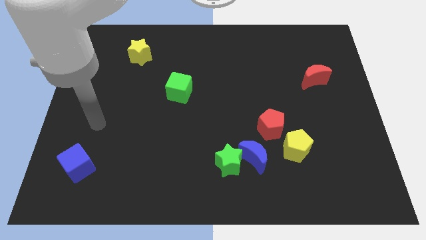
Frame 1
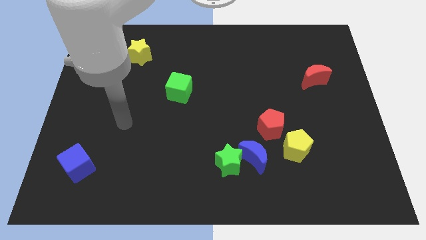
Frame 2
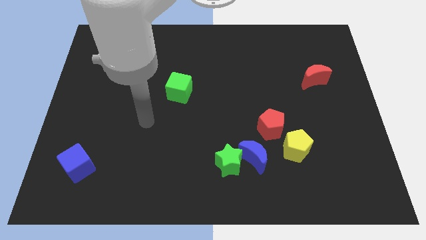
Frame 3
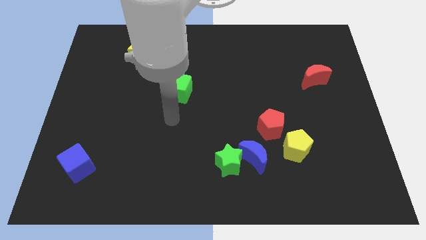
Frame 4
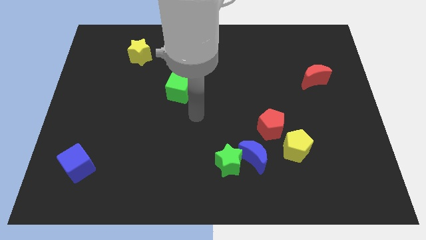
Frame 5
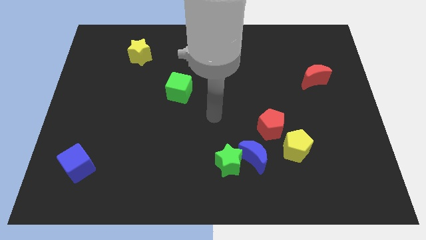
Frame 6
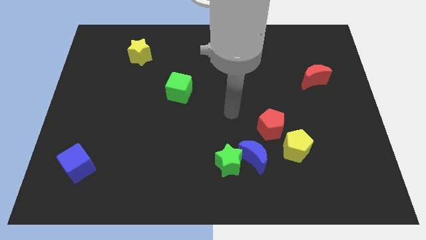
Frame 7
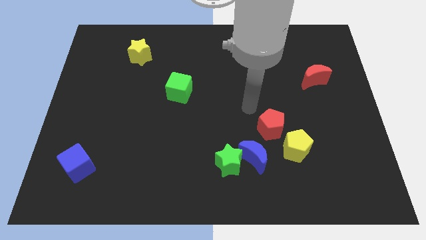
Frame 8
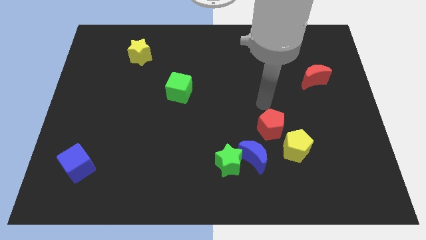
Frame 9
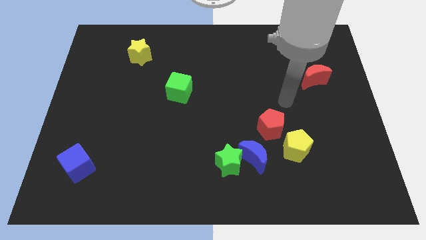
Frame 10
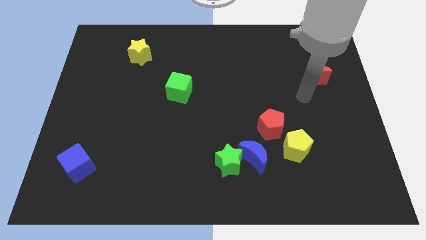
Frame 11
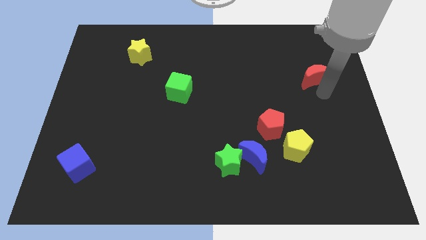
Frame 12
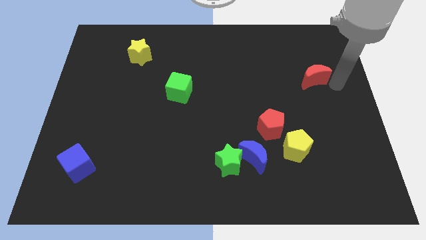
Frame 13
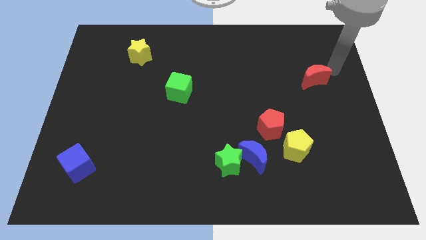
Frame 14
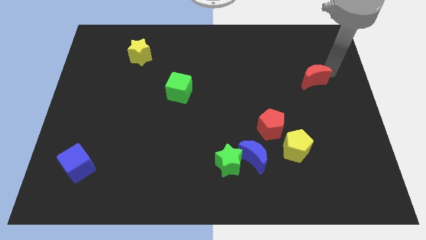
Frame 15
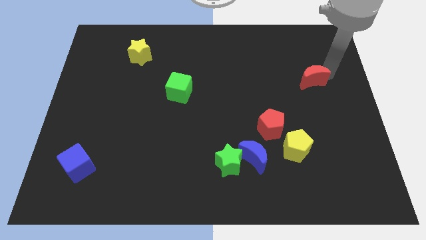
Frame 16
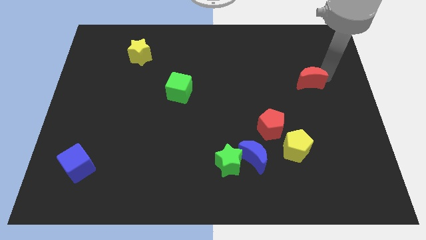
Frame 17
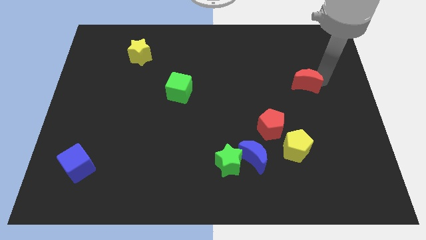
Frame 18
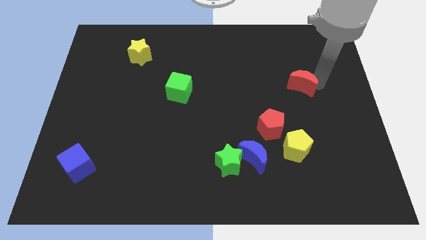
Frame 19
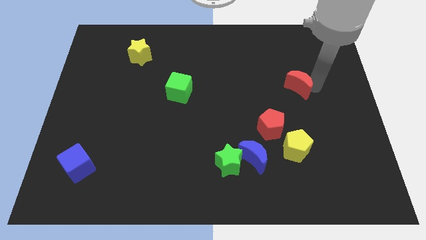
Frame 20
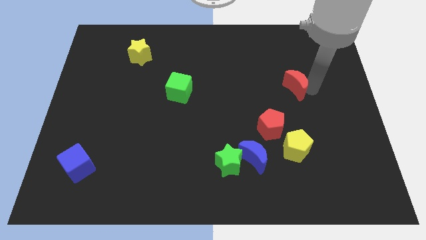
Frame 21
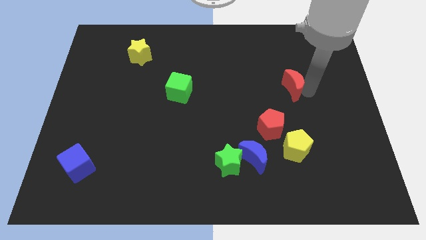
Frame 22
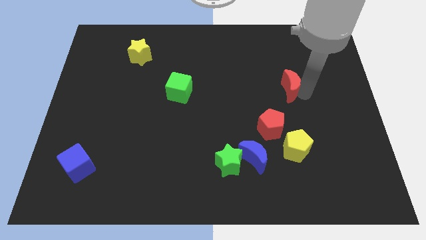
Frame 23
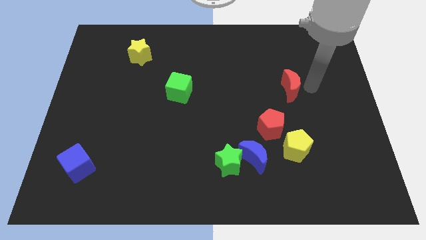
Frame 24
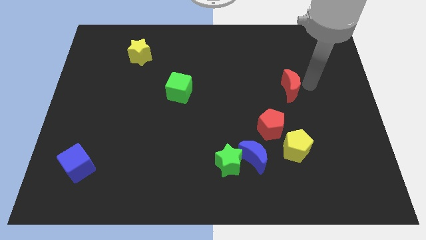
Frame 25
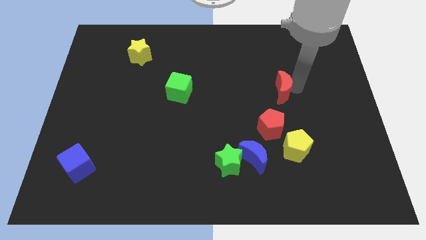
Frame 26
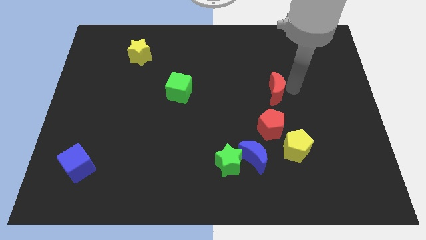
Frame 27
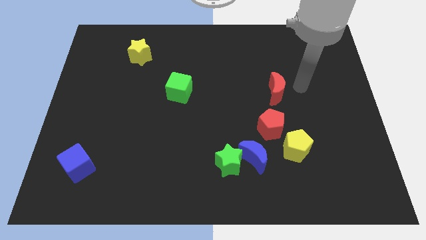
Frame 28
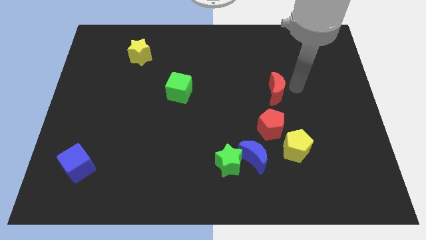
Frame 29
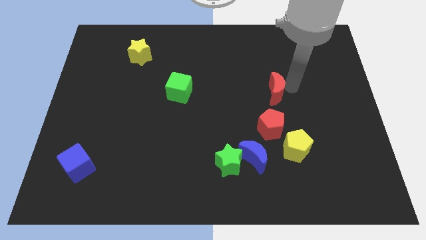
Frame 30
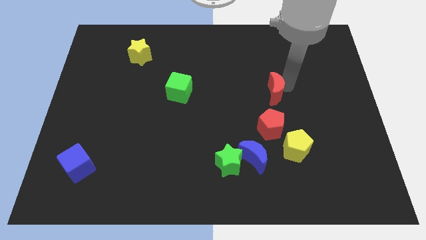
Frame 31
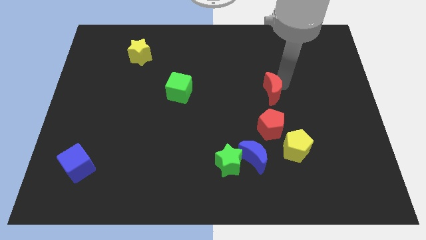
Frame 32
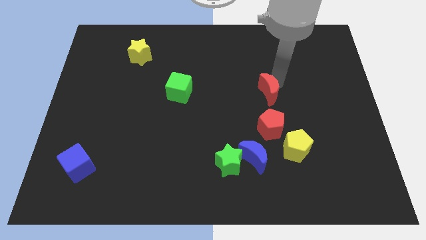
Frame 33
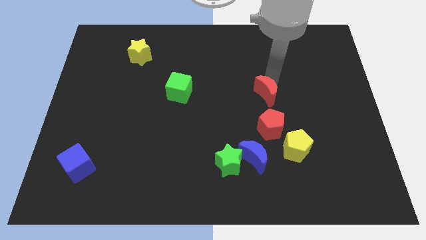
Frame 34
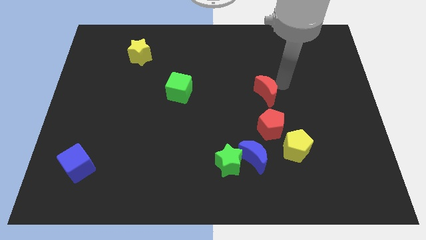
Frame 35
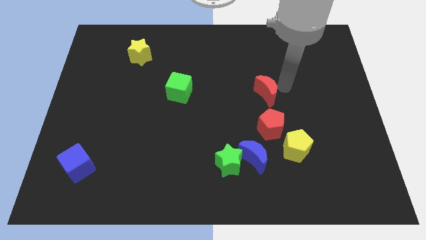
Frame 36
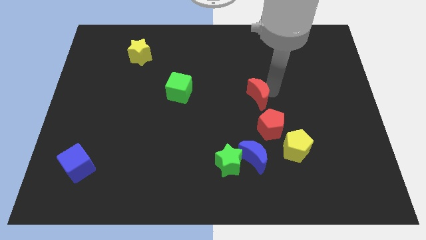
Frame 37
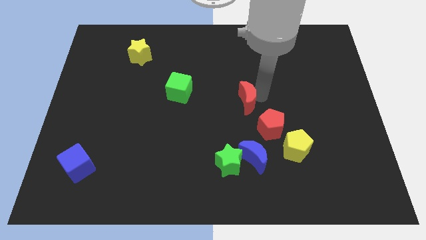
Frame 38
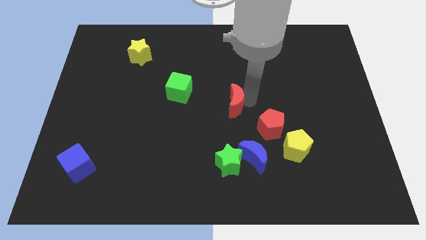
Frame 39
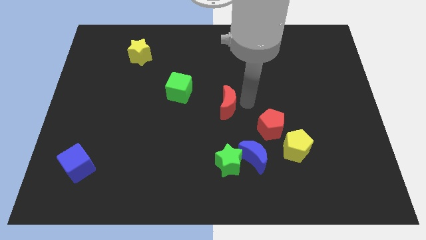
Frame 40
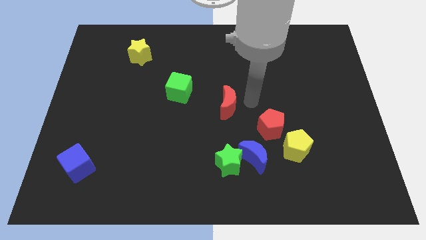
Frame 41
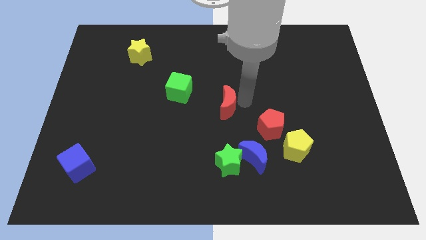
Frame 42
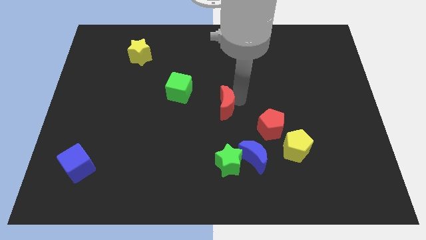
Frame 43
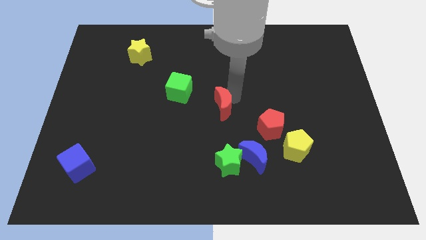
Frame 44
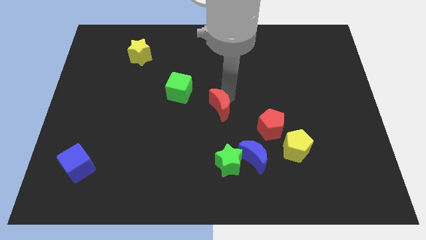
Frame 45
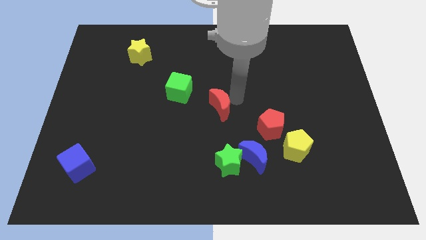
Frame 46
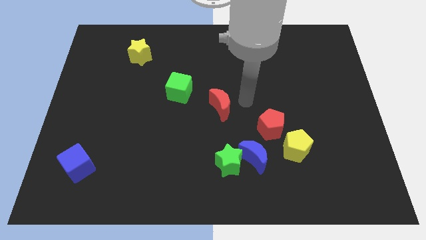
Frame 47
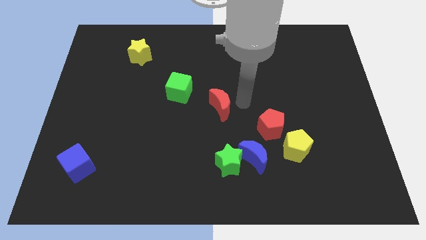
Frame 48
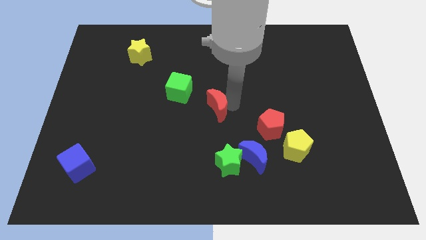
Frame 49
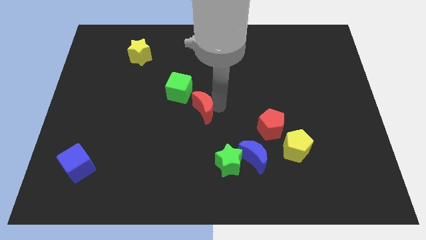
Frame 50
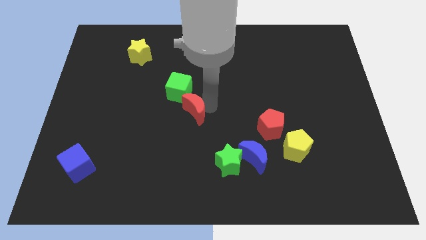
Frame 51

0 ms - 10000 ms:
move the red moon below the green cube

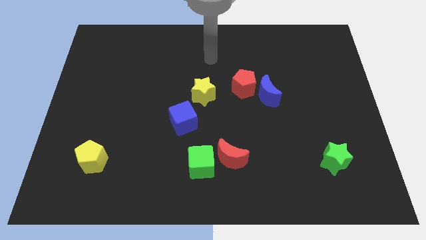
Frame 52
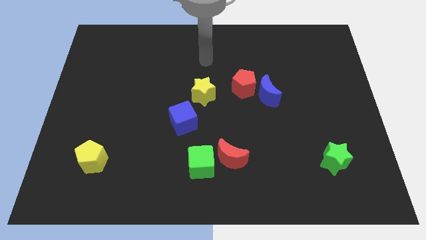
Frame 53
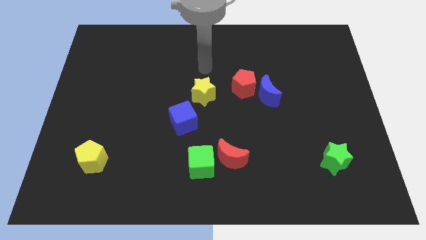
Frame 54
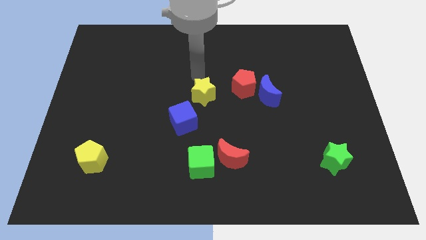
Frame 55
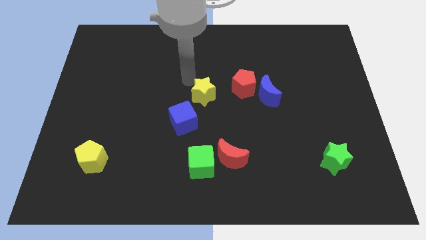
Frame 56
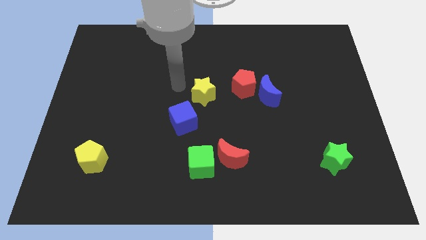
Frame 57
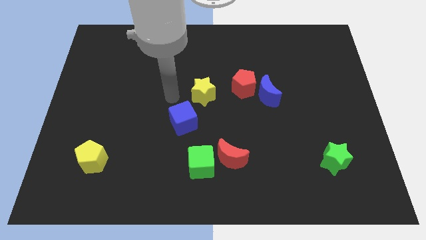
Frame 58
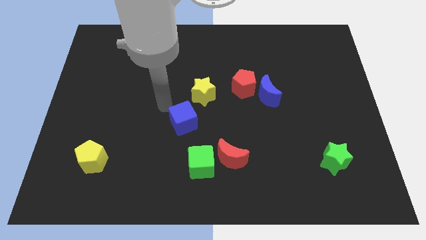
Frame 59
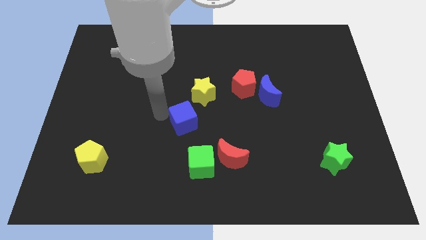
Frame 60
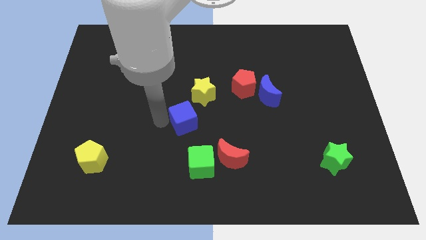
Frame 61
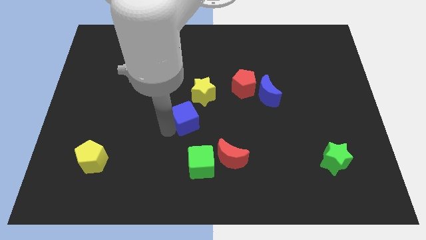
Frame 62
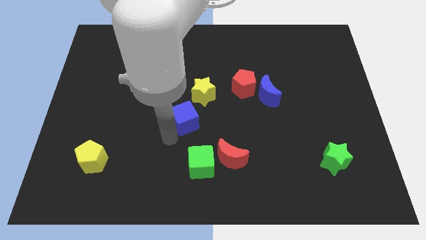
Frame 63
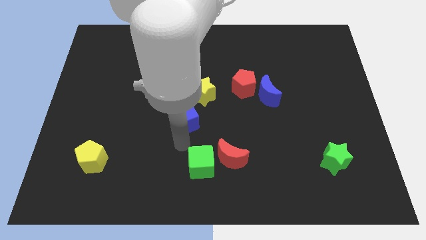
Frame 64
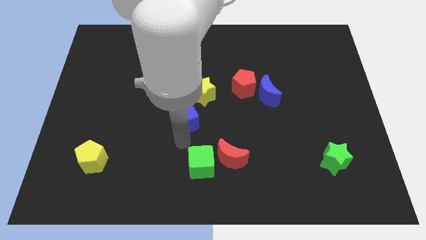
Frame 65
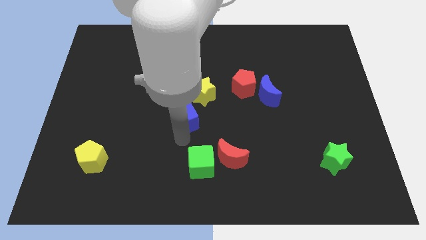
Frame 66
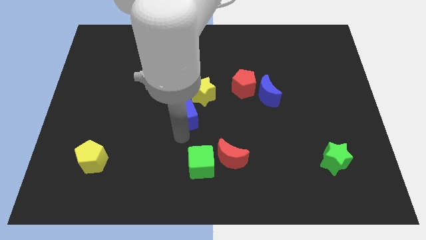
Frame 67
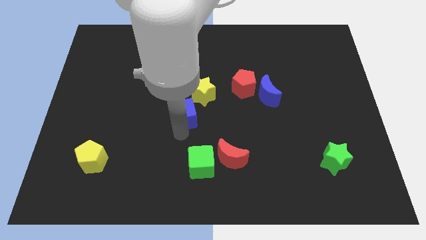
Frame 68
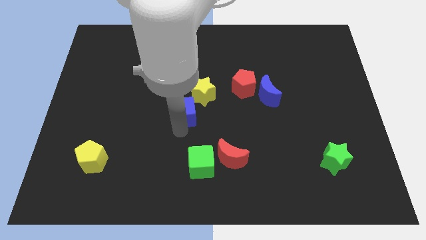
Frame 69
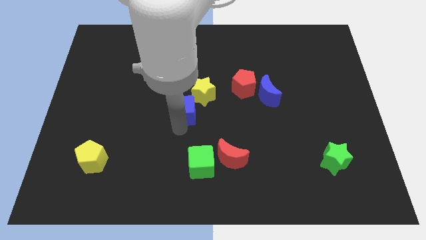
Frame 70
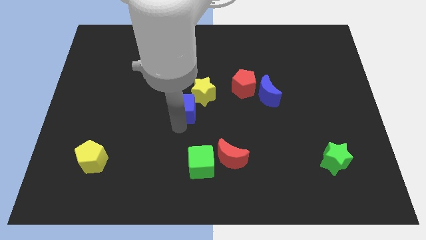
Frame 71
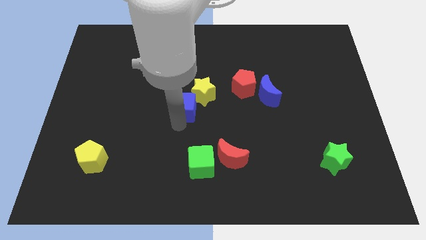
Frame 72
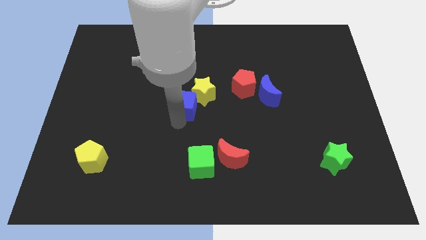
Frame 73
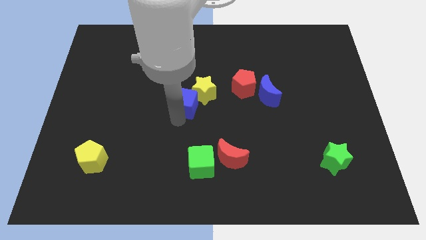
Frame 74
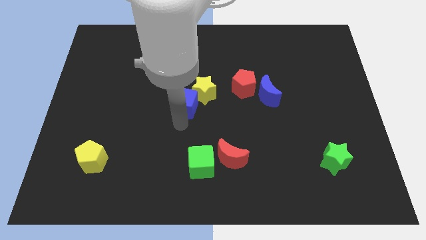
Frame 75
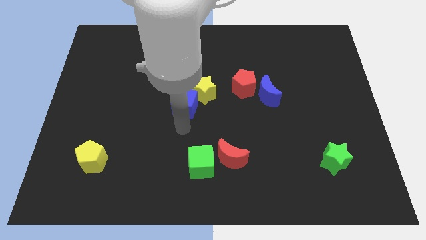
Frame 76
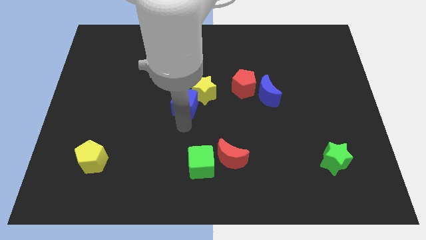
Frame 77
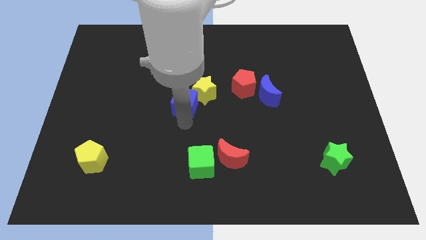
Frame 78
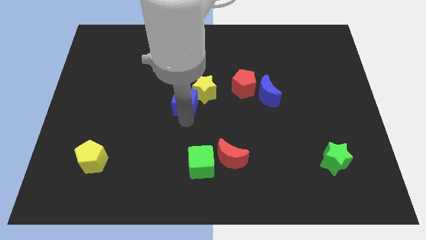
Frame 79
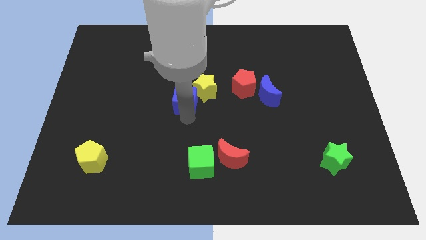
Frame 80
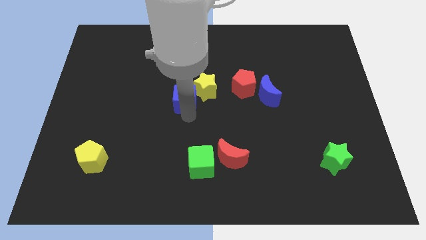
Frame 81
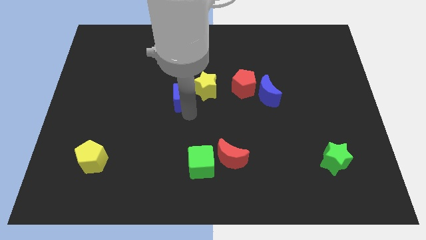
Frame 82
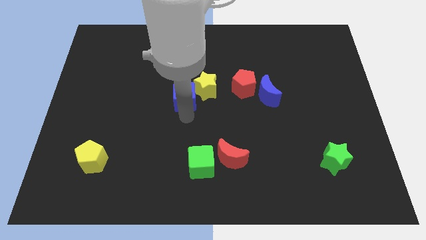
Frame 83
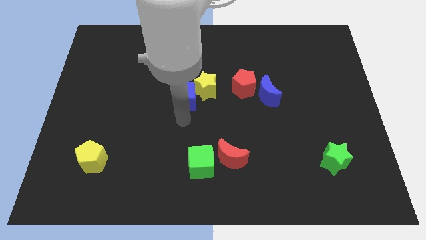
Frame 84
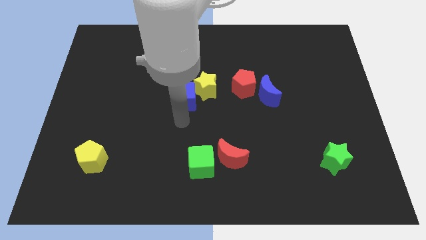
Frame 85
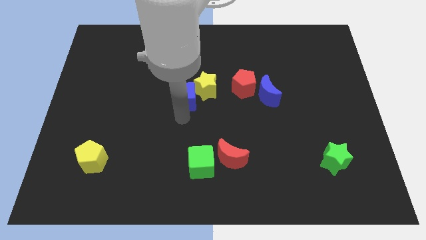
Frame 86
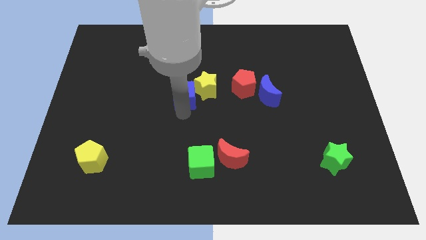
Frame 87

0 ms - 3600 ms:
put the blue cube just left of the red pentagon
